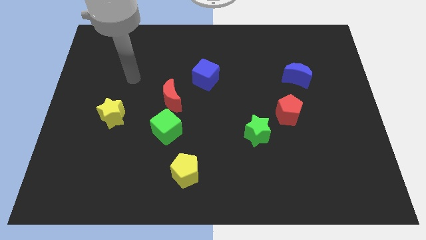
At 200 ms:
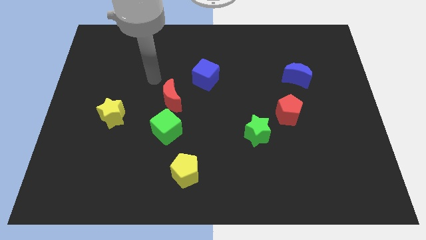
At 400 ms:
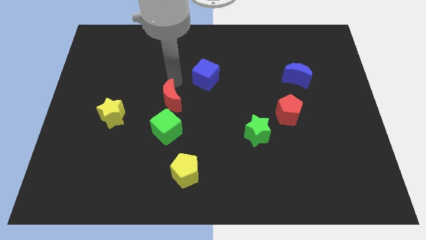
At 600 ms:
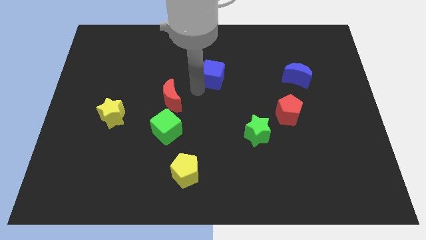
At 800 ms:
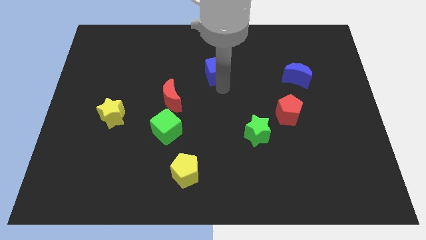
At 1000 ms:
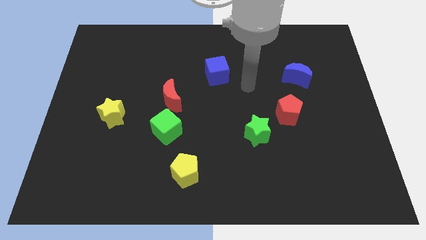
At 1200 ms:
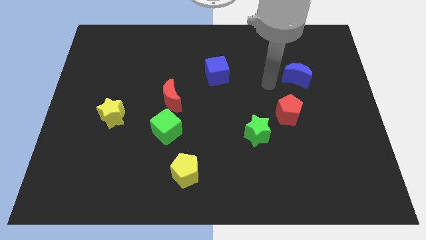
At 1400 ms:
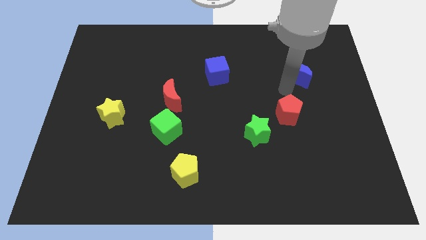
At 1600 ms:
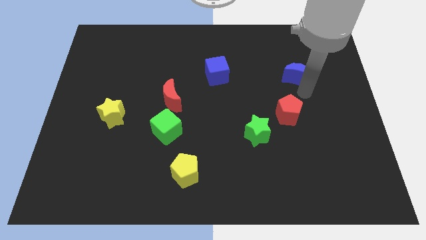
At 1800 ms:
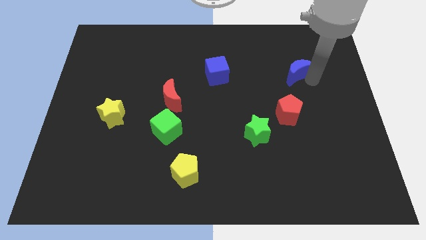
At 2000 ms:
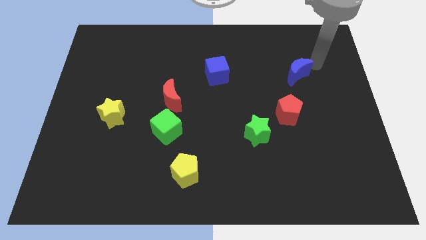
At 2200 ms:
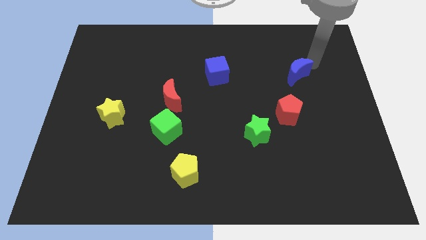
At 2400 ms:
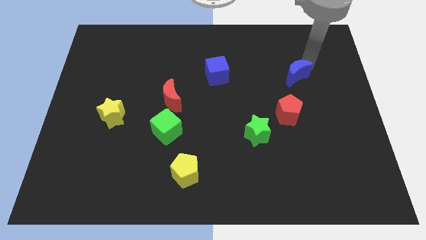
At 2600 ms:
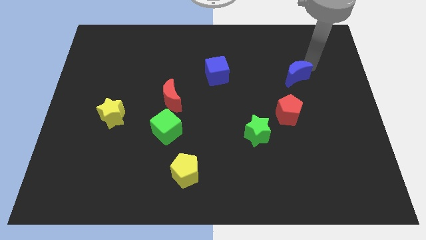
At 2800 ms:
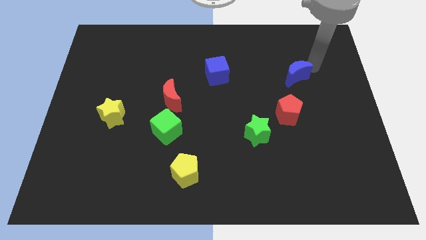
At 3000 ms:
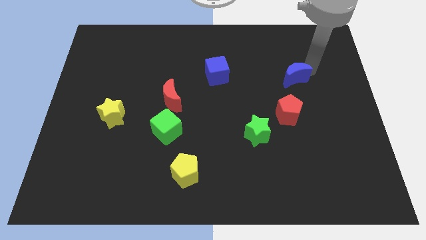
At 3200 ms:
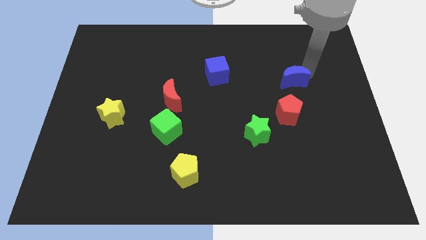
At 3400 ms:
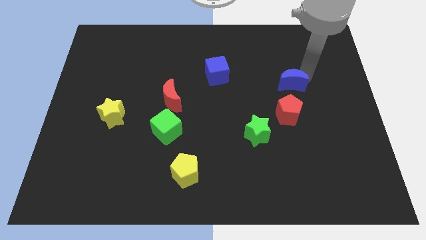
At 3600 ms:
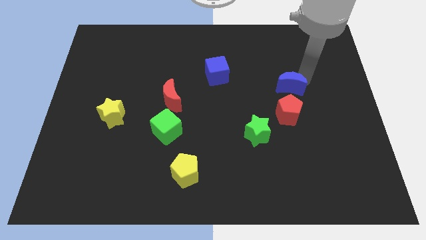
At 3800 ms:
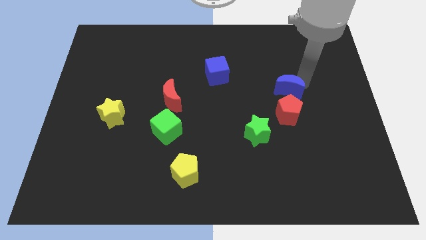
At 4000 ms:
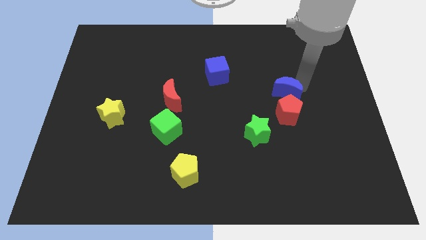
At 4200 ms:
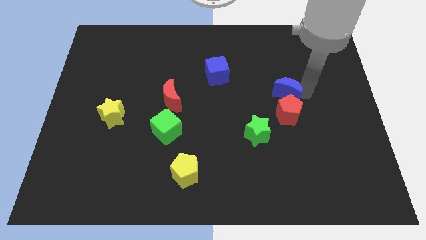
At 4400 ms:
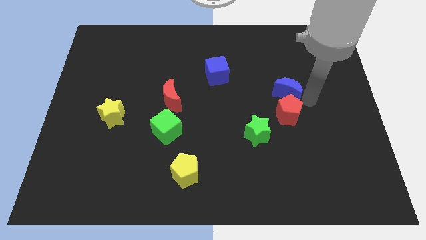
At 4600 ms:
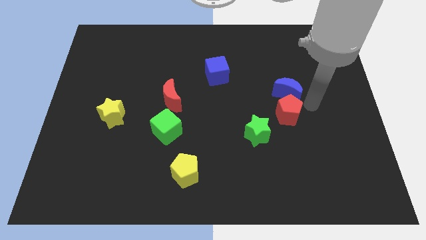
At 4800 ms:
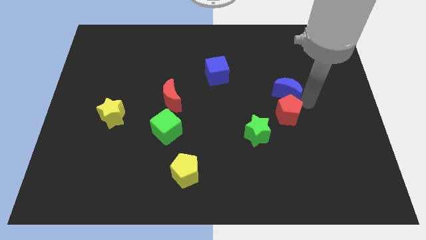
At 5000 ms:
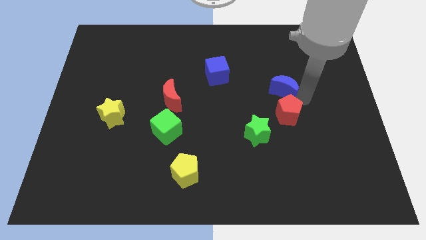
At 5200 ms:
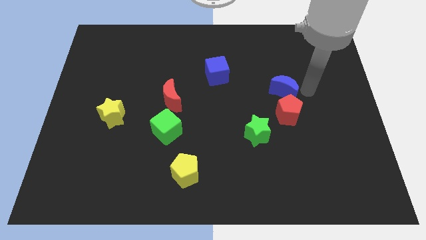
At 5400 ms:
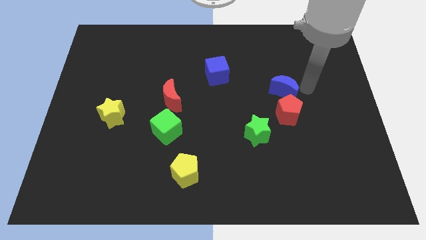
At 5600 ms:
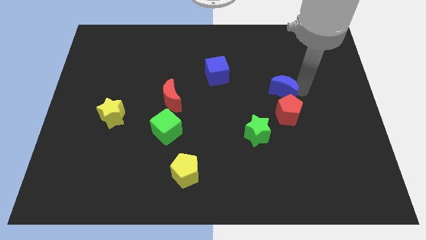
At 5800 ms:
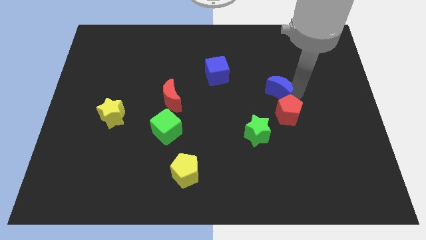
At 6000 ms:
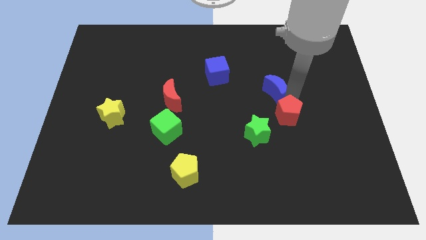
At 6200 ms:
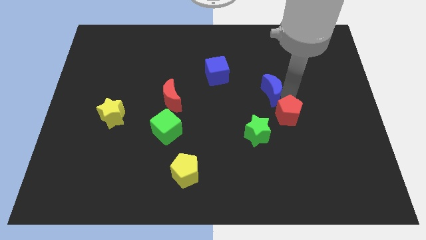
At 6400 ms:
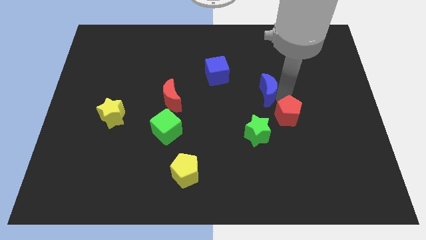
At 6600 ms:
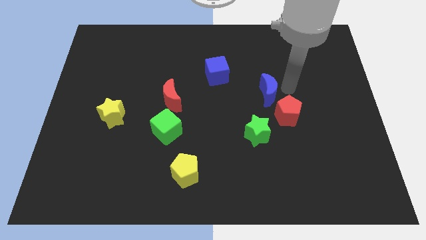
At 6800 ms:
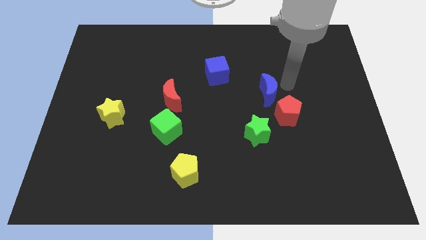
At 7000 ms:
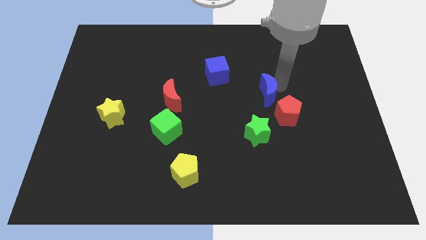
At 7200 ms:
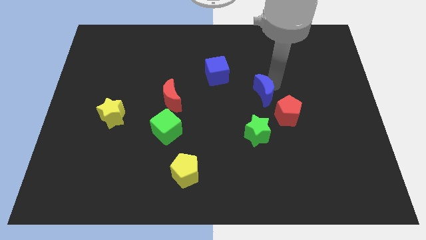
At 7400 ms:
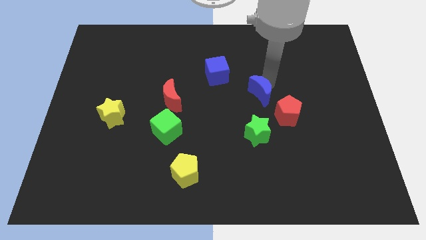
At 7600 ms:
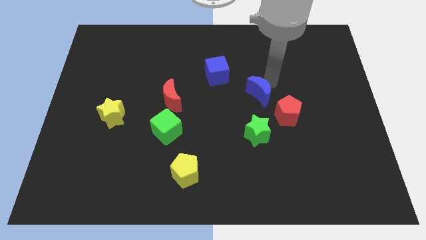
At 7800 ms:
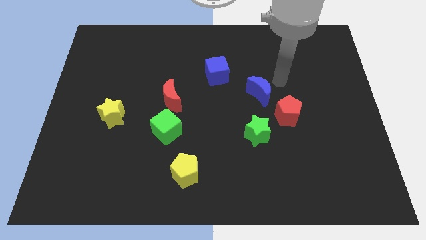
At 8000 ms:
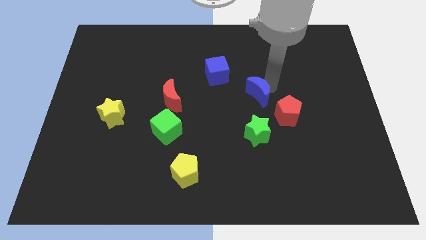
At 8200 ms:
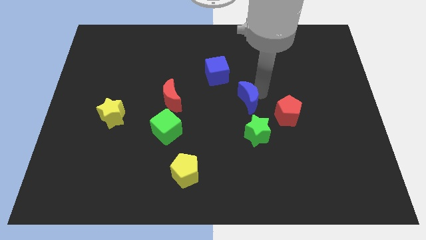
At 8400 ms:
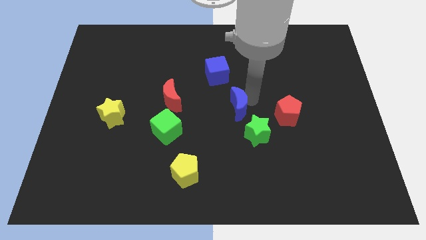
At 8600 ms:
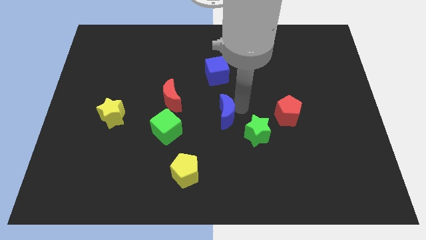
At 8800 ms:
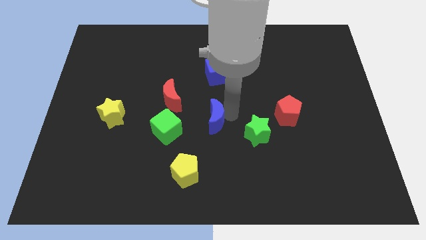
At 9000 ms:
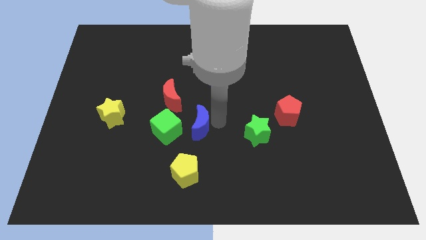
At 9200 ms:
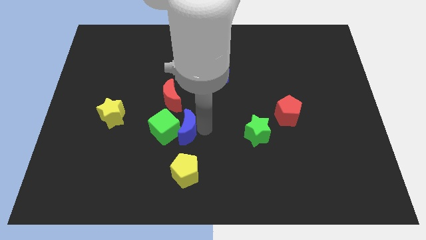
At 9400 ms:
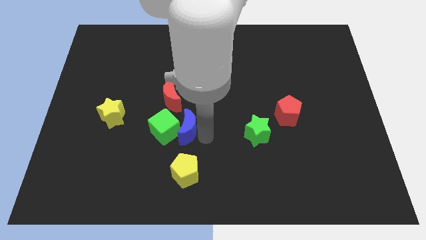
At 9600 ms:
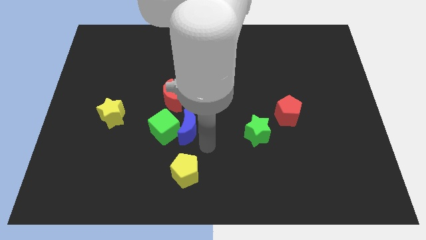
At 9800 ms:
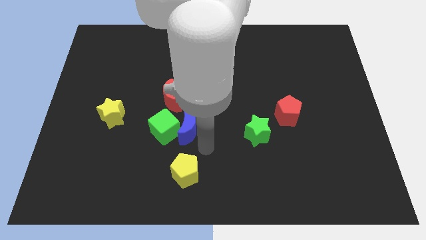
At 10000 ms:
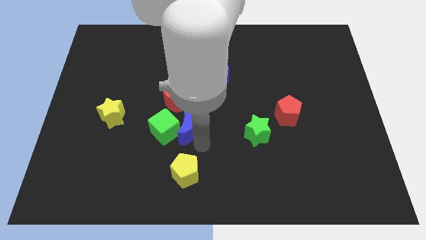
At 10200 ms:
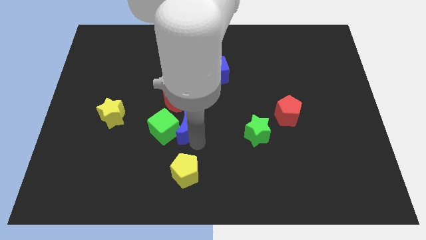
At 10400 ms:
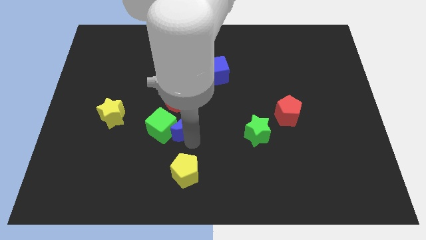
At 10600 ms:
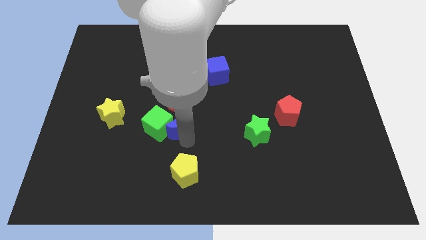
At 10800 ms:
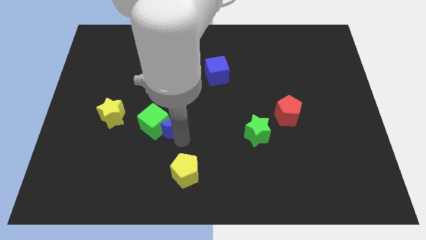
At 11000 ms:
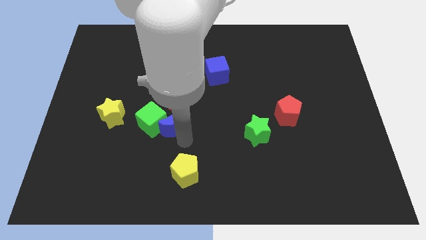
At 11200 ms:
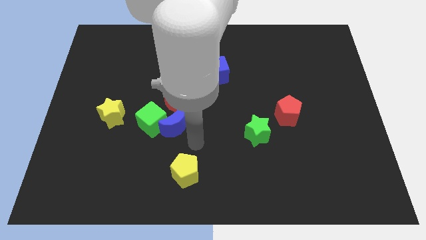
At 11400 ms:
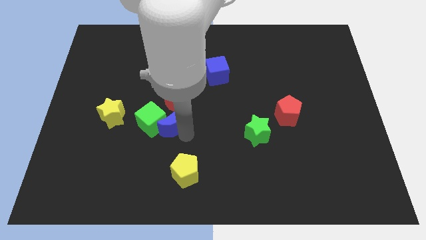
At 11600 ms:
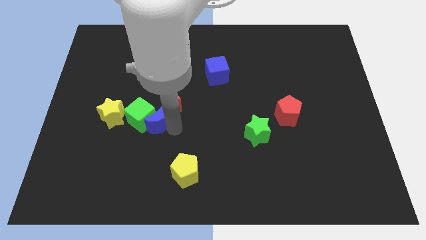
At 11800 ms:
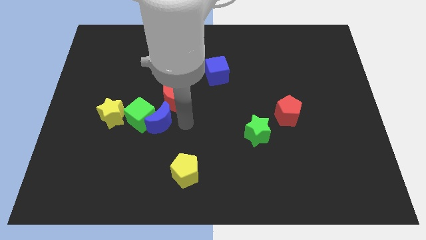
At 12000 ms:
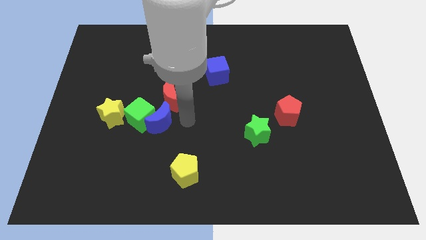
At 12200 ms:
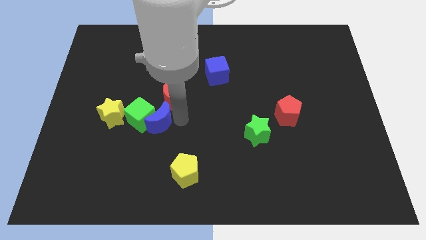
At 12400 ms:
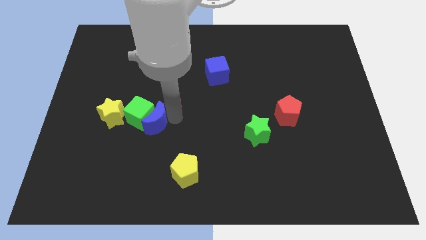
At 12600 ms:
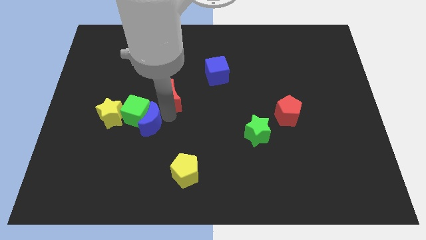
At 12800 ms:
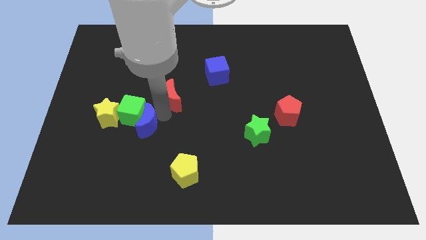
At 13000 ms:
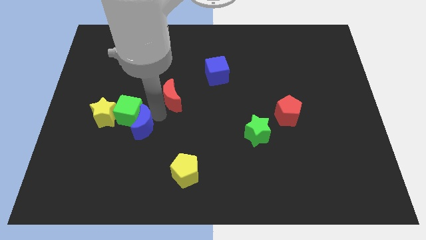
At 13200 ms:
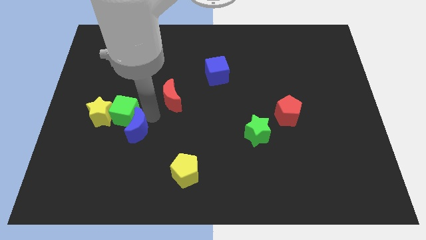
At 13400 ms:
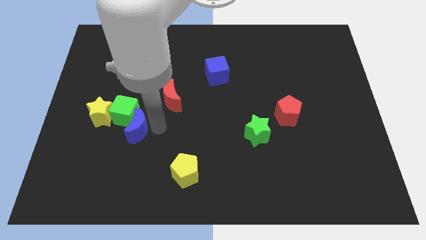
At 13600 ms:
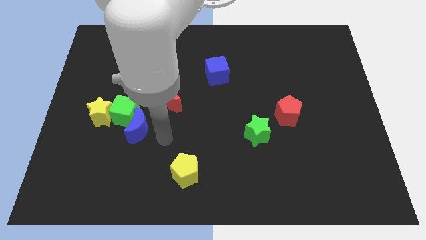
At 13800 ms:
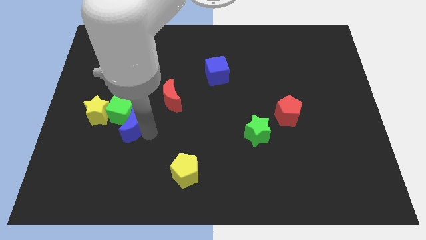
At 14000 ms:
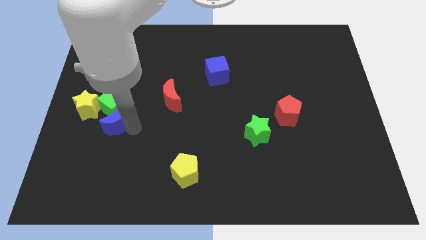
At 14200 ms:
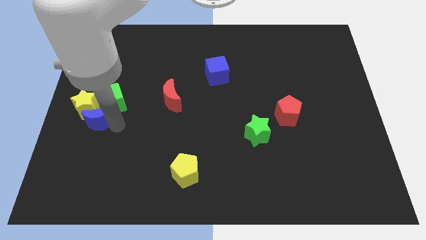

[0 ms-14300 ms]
move the blue moon towards the yellow star
